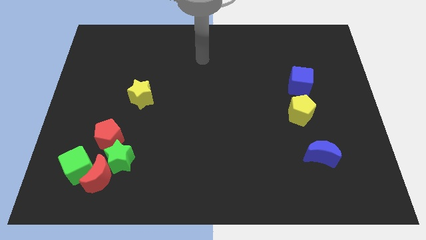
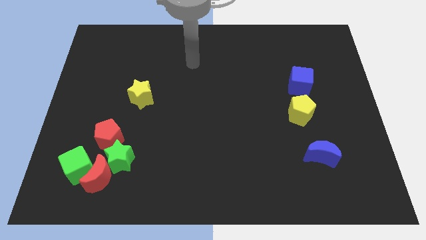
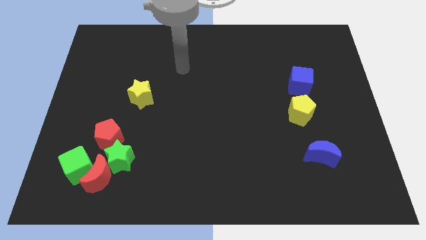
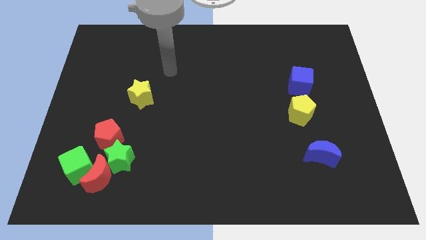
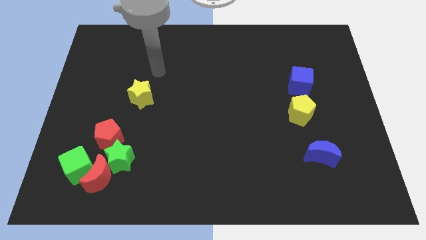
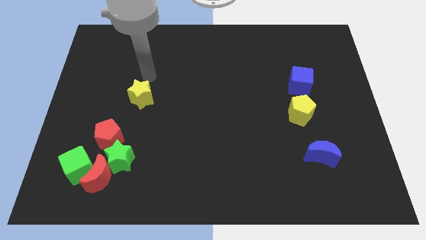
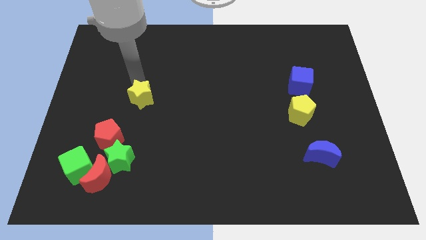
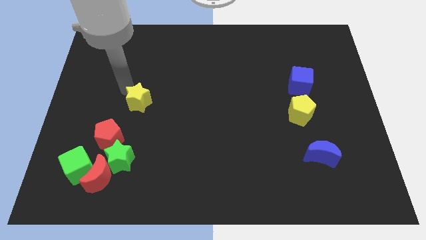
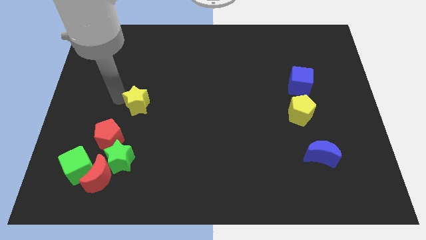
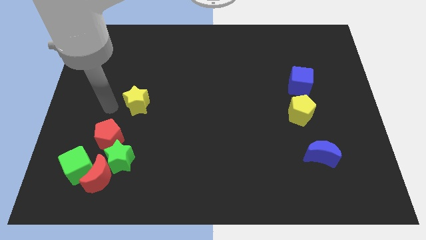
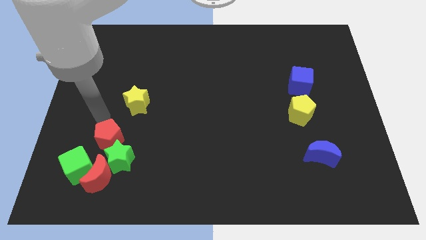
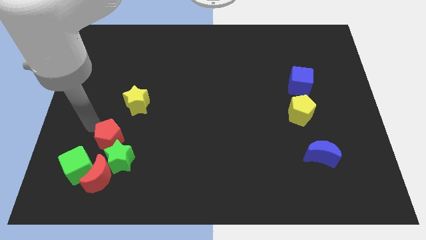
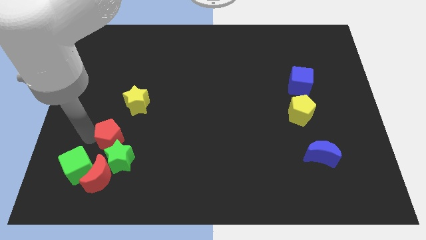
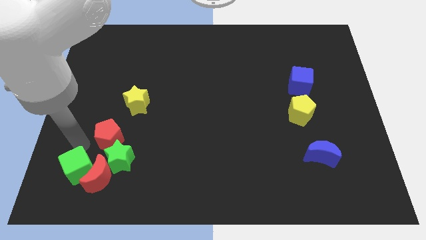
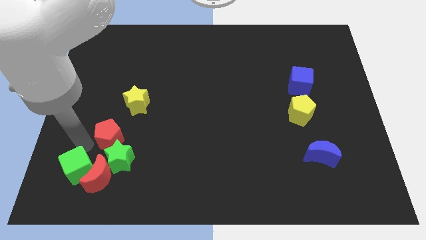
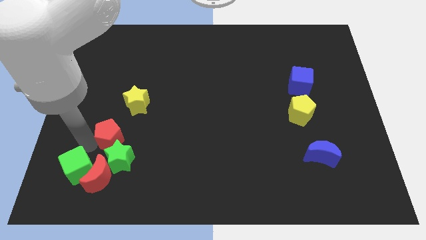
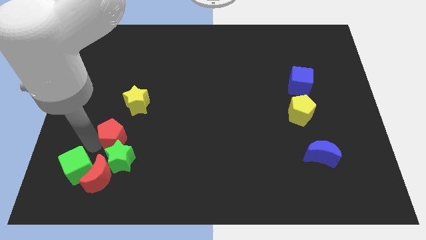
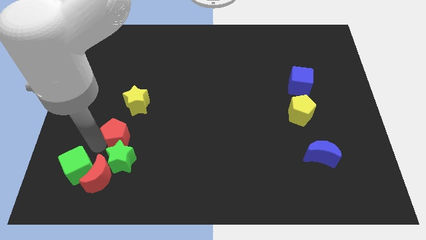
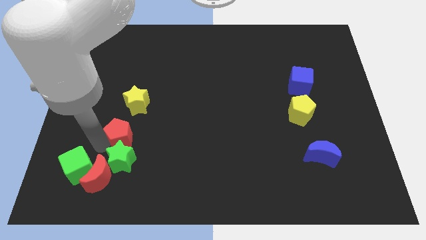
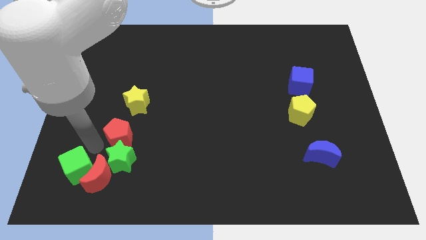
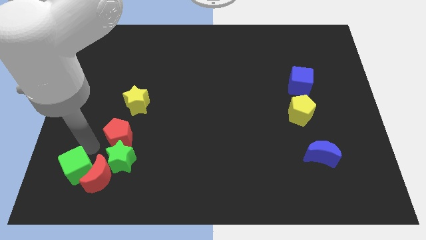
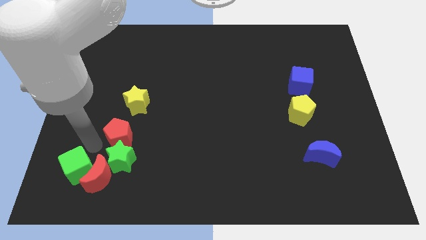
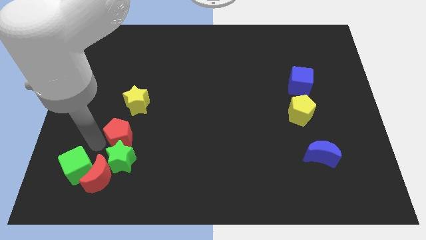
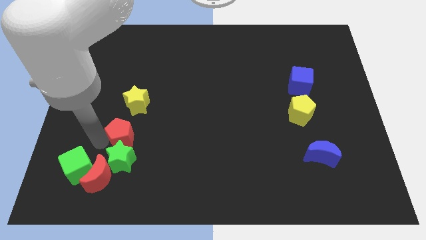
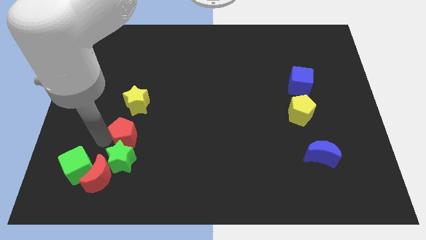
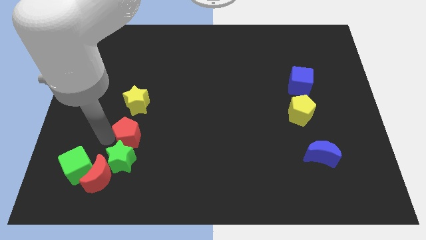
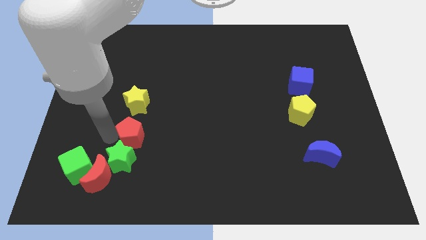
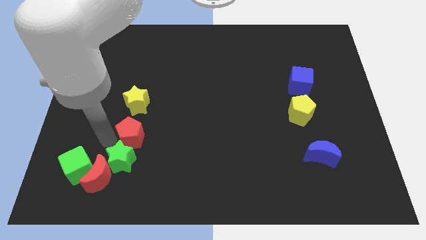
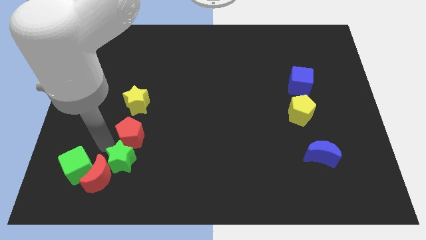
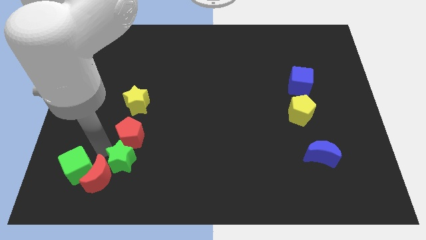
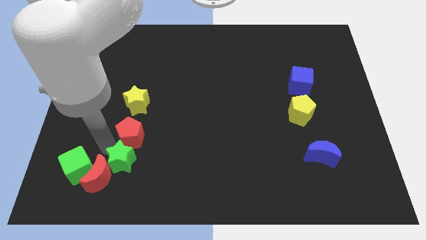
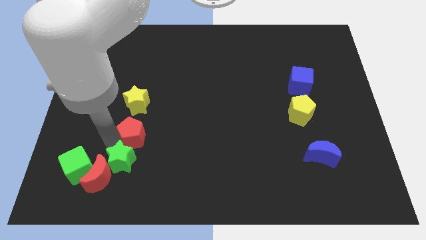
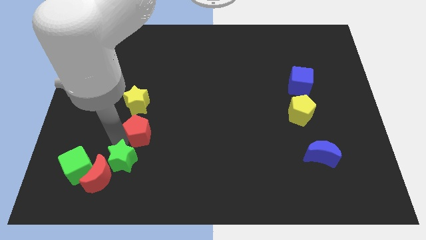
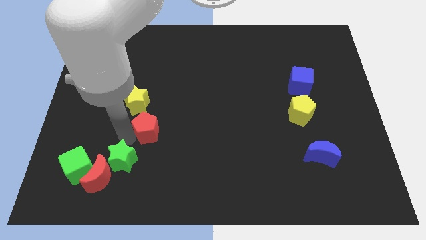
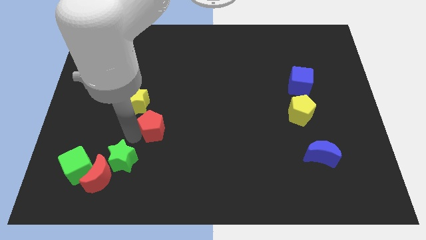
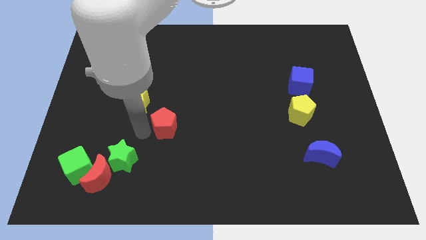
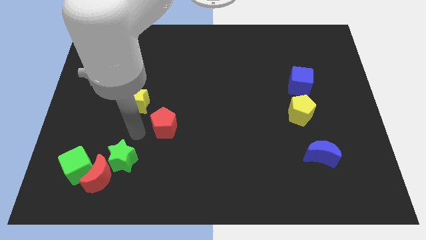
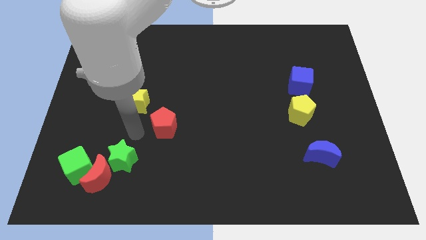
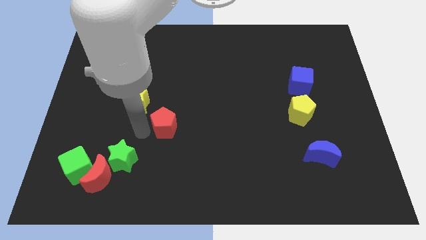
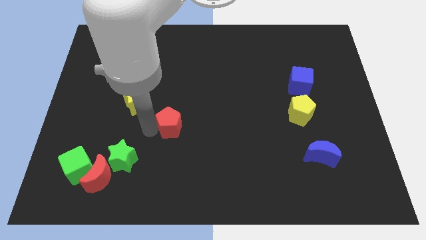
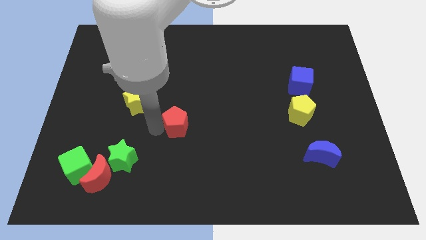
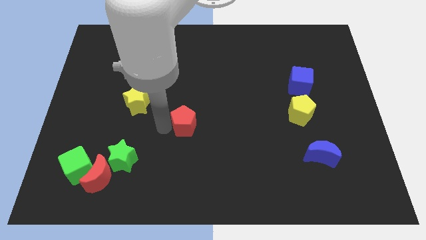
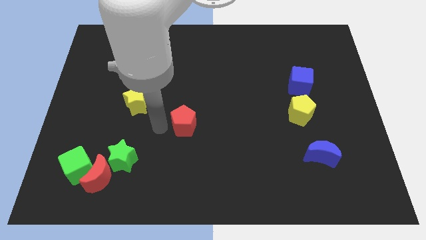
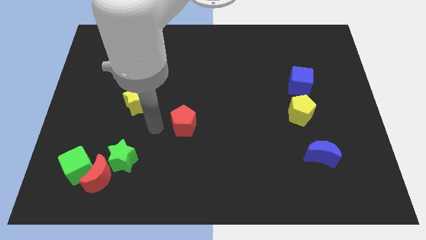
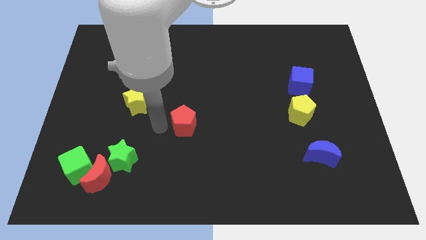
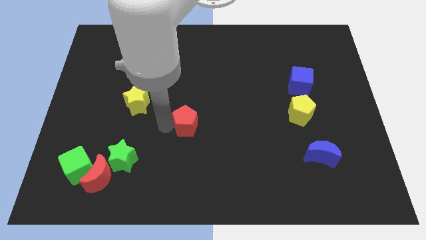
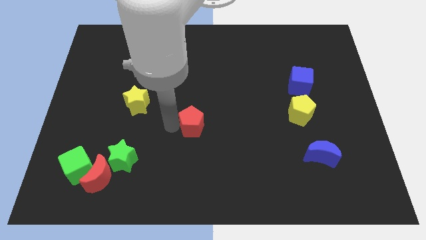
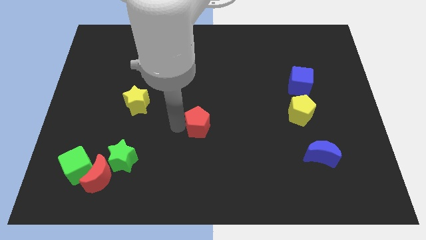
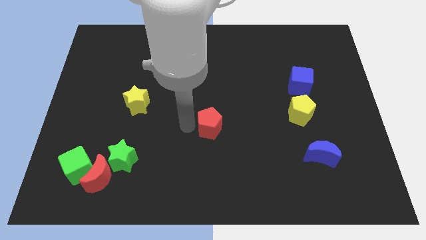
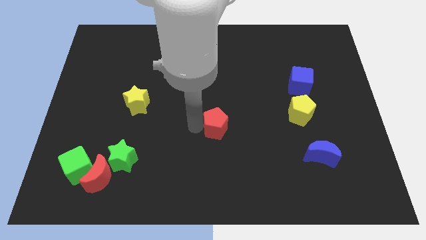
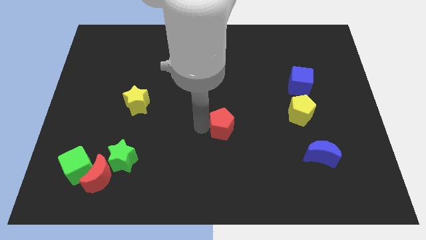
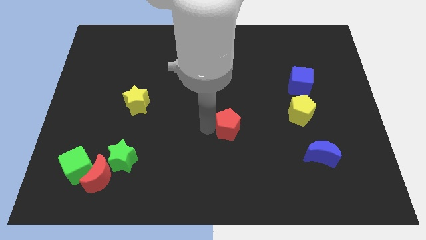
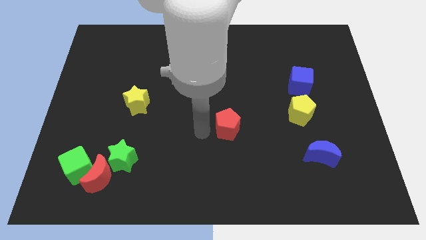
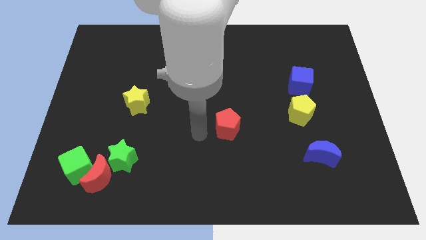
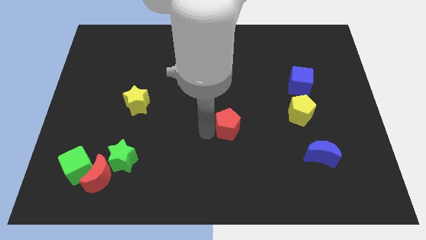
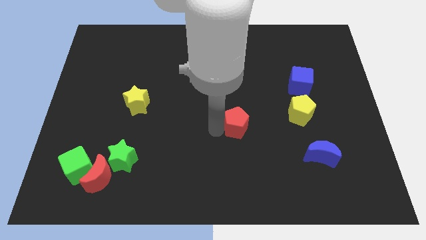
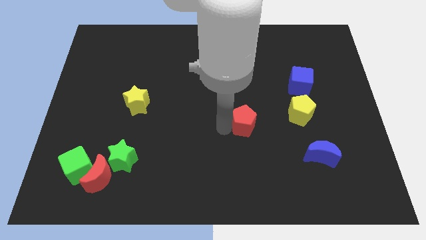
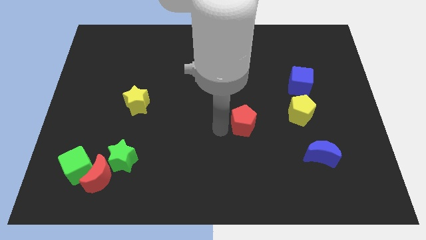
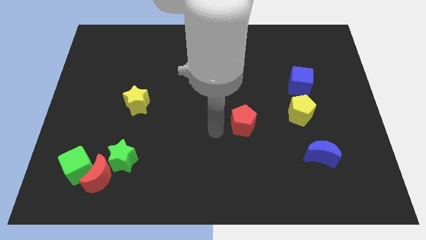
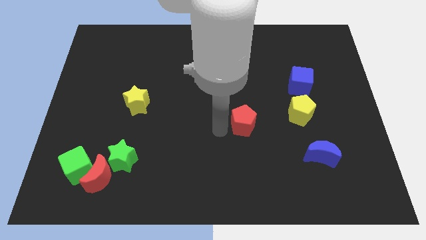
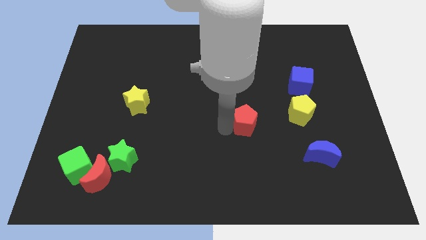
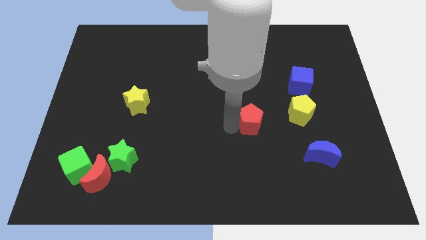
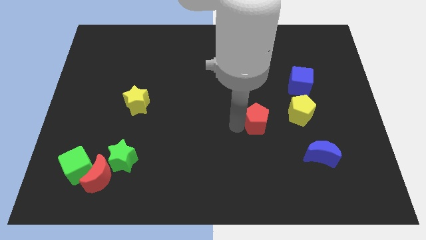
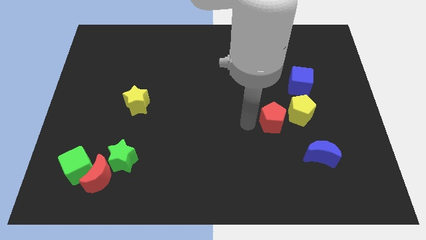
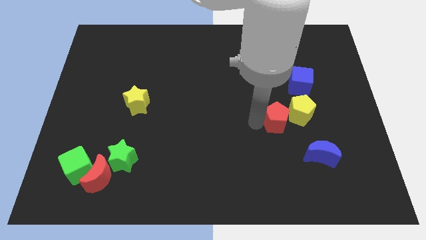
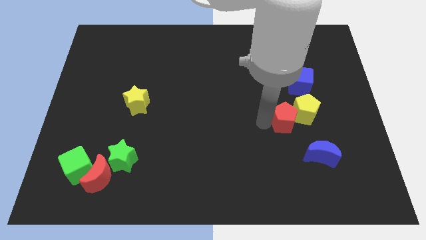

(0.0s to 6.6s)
slide the red pentagon towards the yellow pentagon

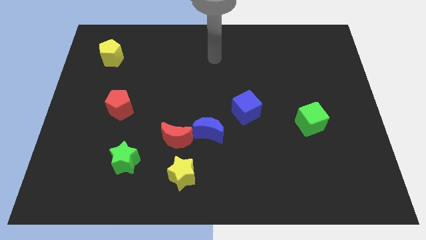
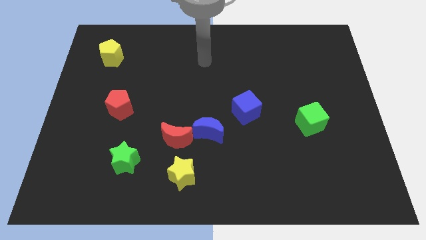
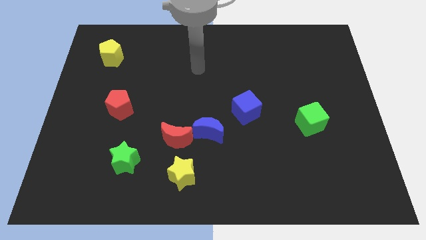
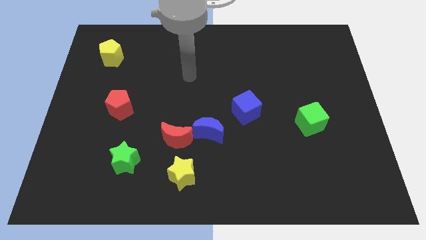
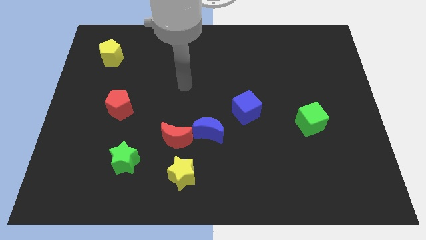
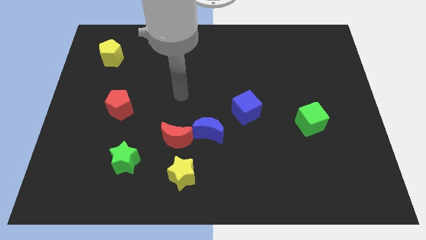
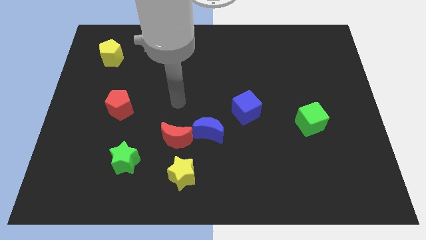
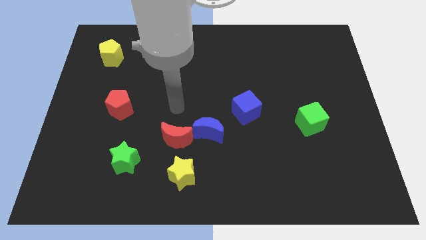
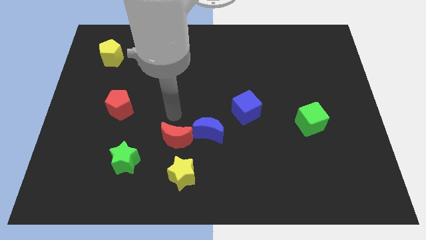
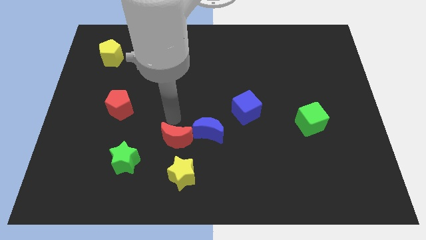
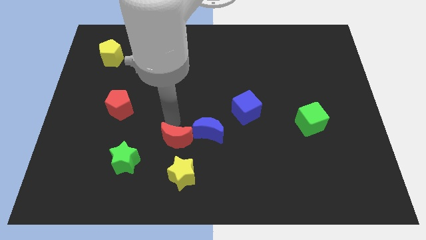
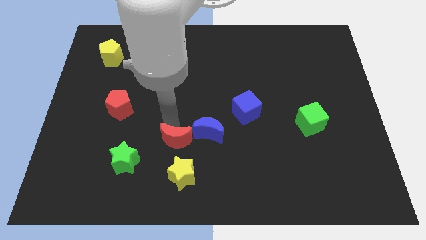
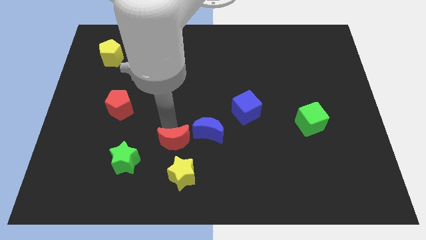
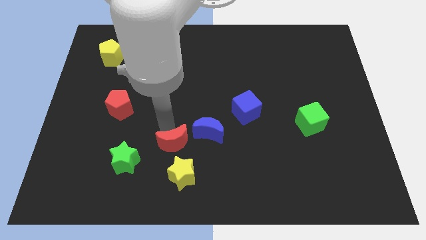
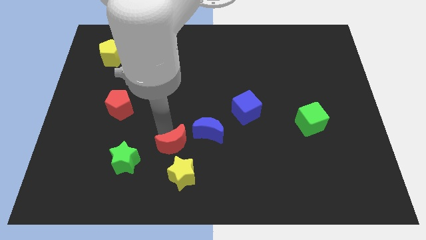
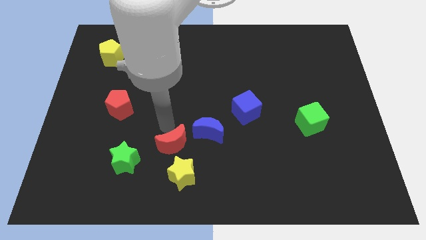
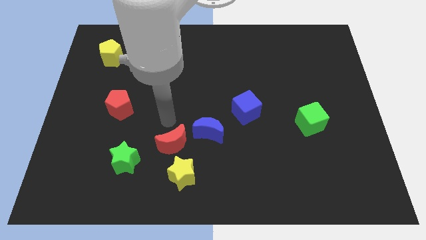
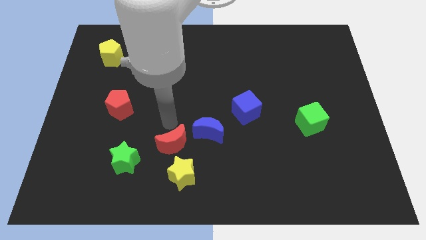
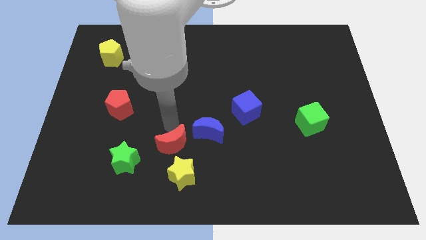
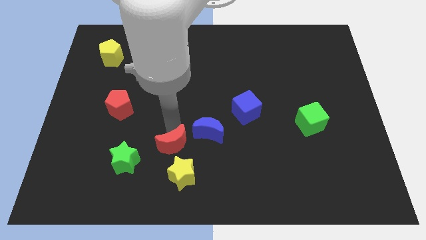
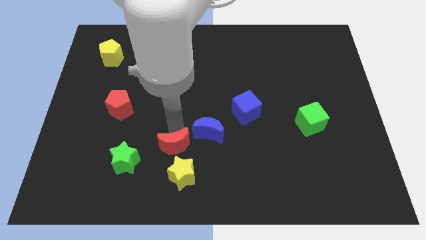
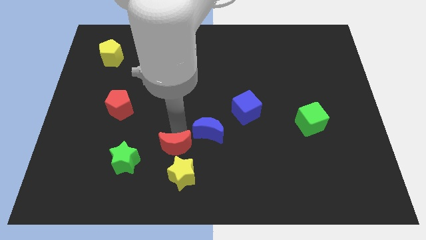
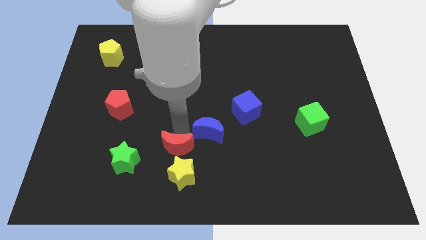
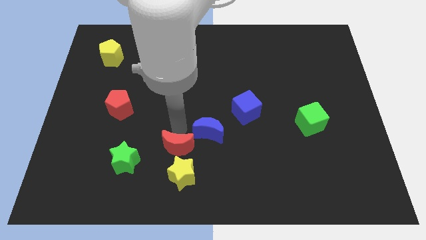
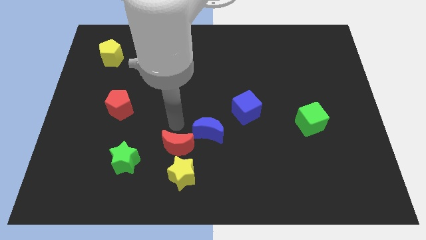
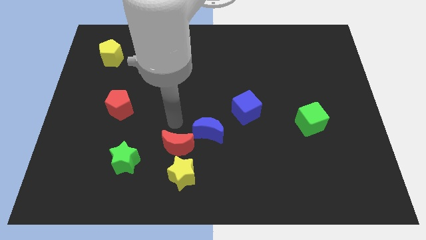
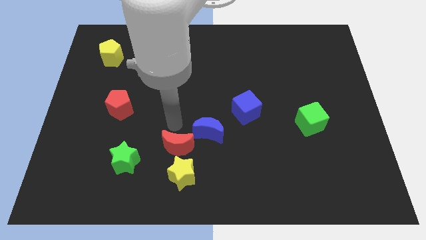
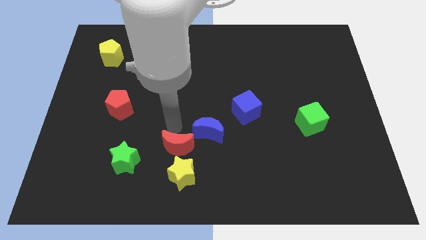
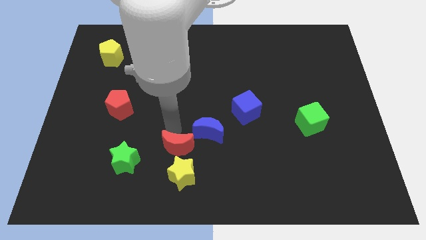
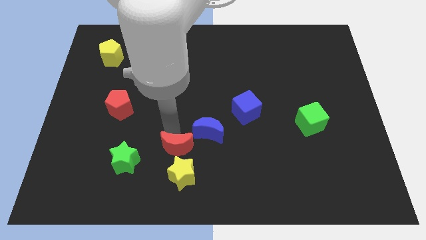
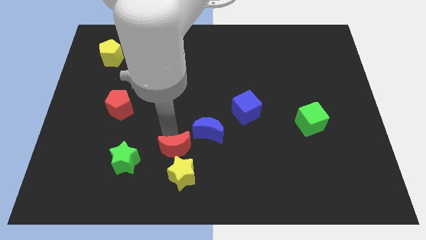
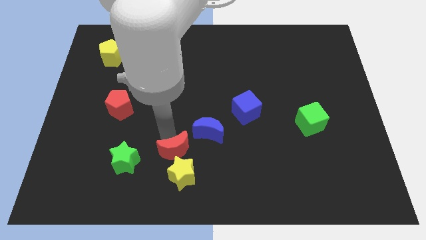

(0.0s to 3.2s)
slide the red moon next to the yellow star
